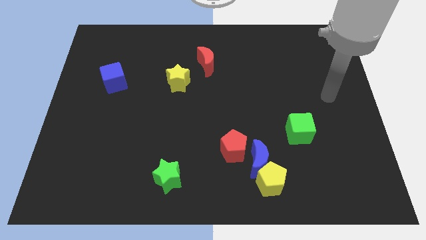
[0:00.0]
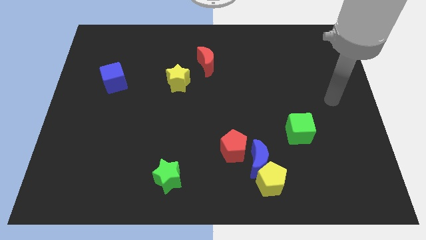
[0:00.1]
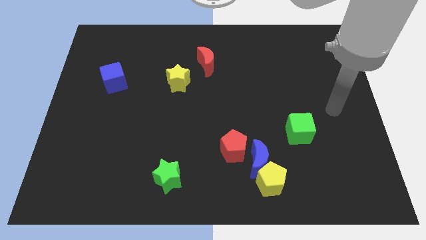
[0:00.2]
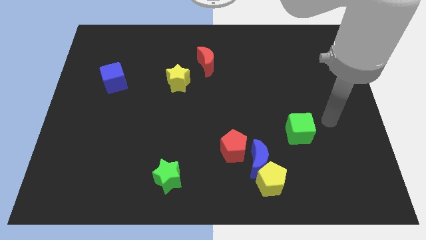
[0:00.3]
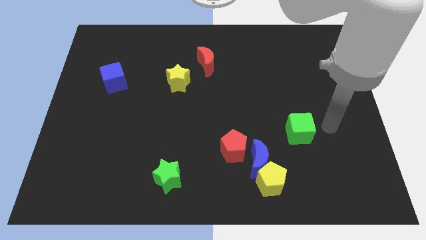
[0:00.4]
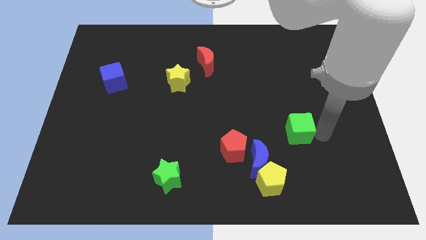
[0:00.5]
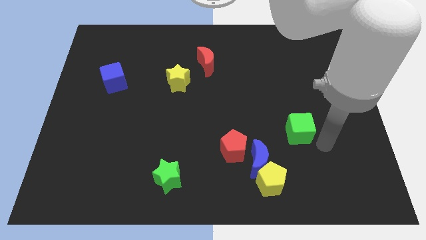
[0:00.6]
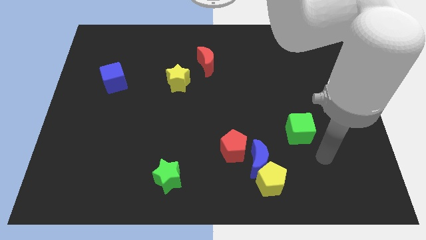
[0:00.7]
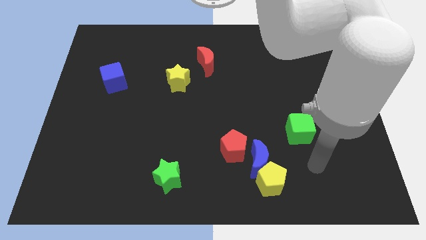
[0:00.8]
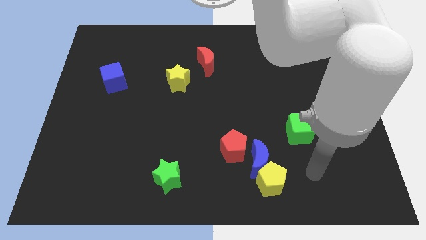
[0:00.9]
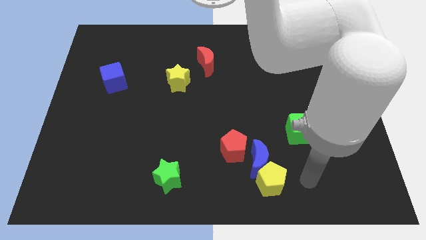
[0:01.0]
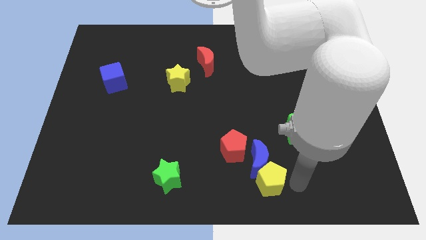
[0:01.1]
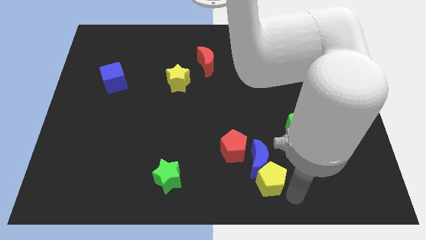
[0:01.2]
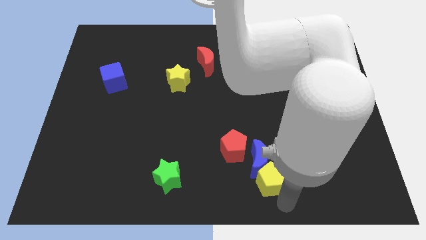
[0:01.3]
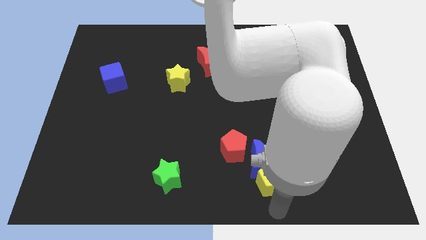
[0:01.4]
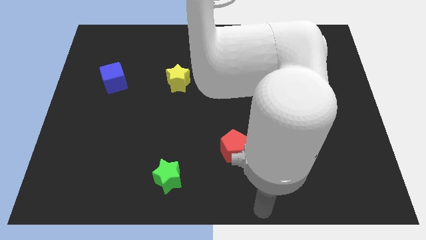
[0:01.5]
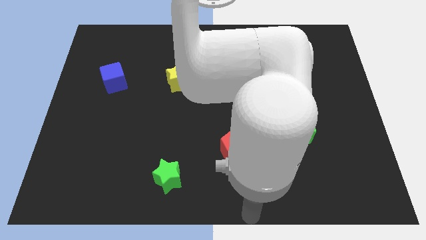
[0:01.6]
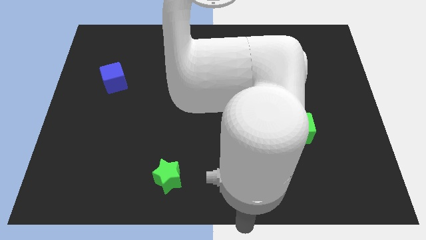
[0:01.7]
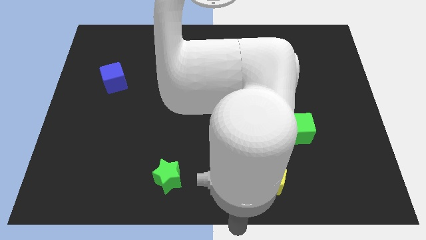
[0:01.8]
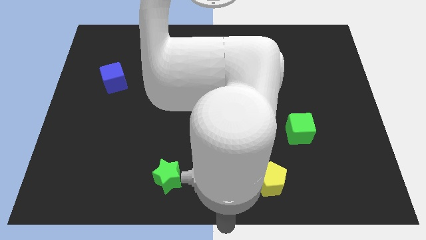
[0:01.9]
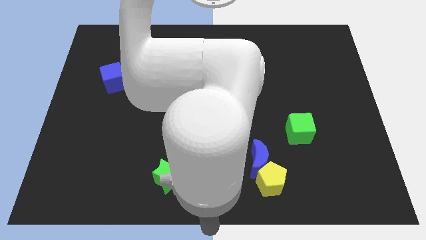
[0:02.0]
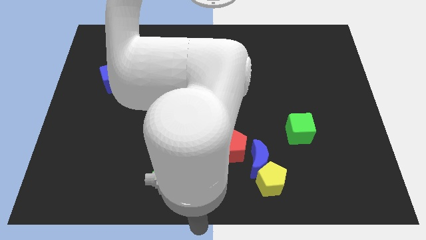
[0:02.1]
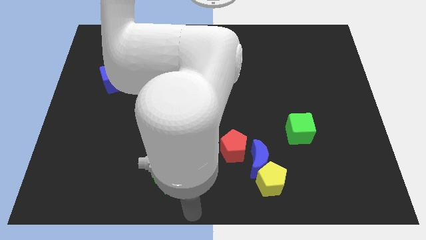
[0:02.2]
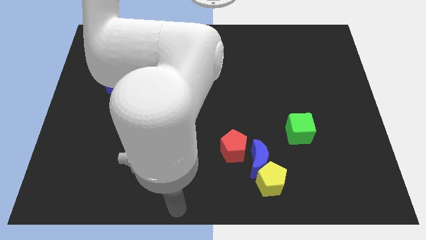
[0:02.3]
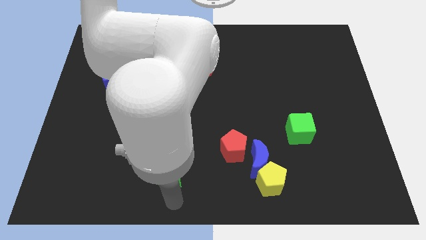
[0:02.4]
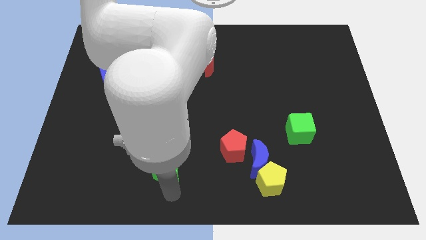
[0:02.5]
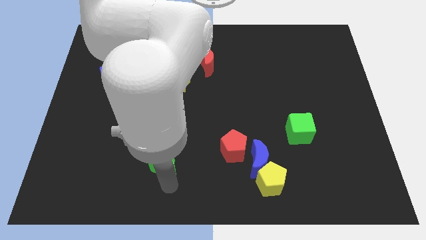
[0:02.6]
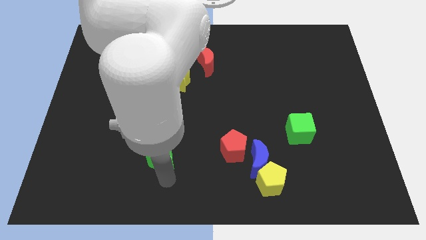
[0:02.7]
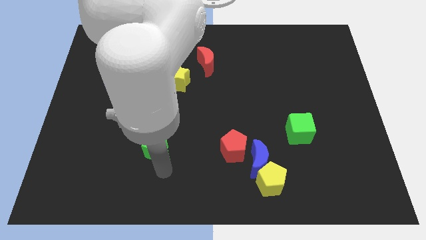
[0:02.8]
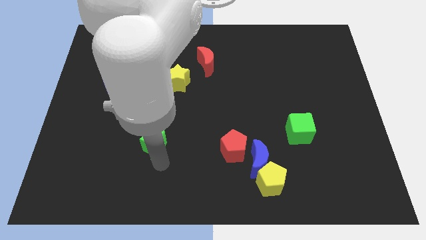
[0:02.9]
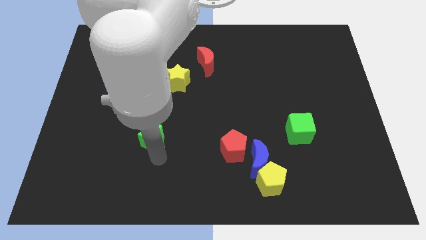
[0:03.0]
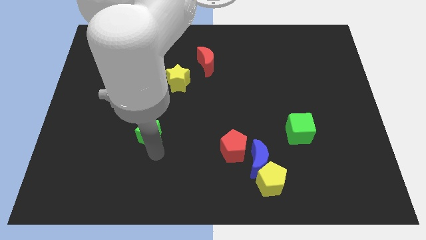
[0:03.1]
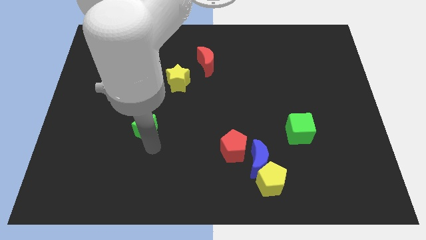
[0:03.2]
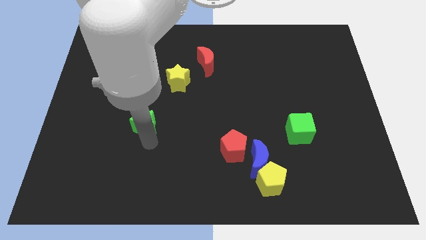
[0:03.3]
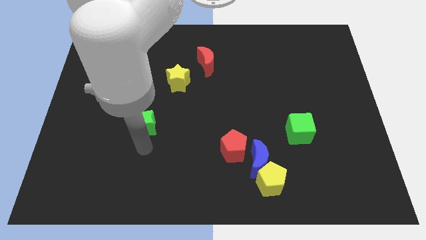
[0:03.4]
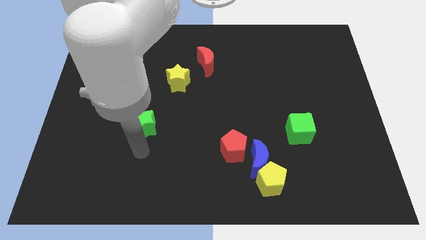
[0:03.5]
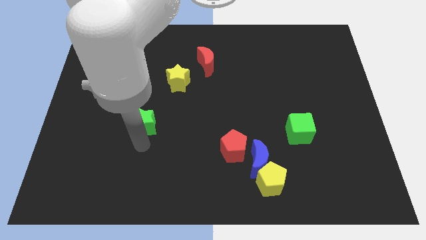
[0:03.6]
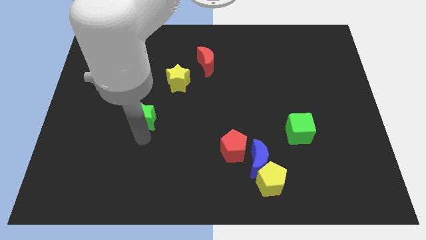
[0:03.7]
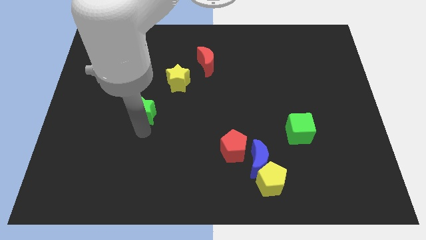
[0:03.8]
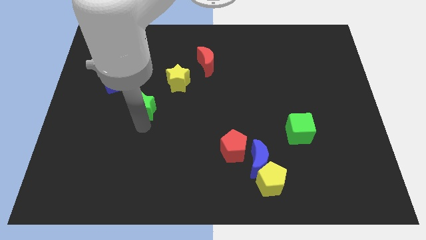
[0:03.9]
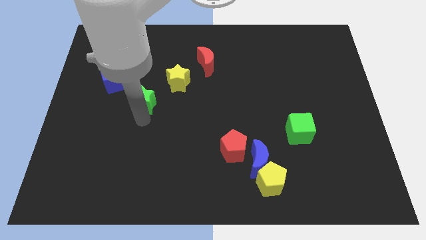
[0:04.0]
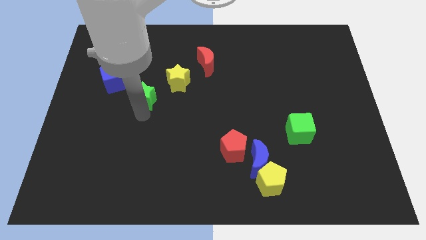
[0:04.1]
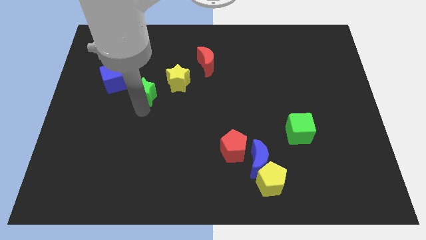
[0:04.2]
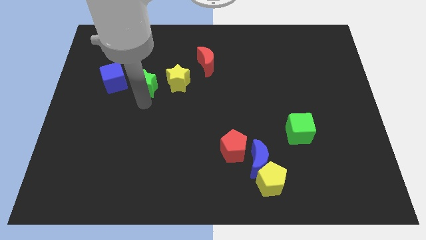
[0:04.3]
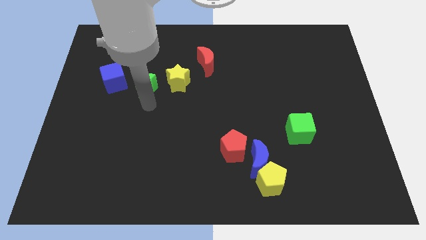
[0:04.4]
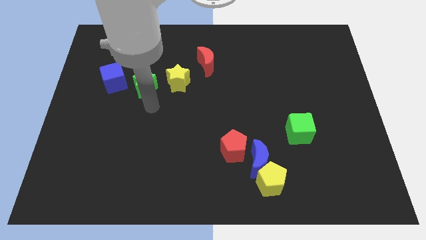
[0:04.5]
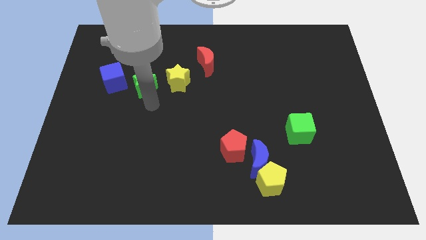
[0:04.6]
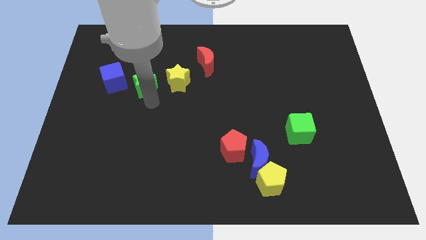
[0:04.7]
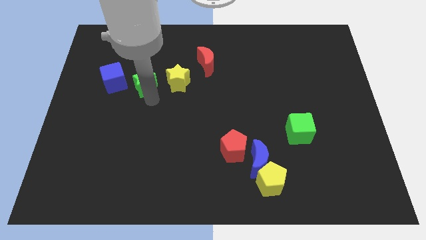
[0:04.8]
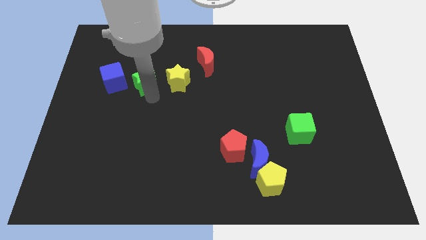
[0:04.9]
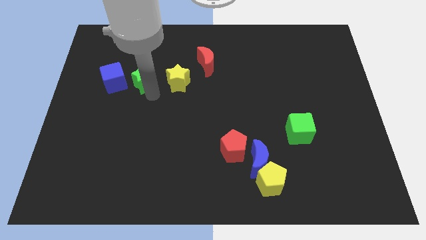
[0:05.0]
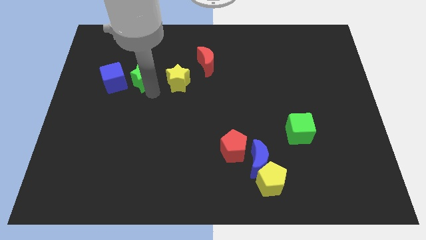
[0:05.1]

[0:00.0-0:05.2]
slide the green star diagonally up and to the right of the blue cube

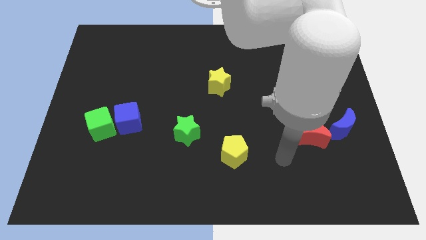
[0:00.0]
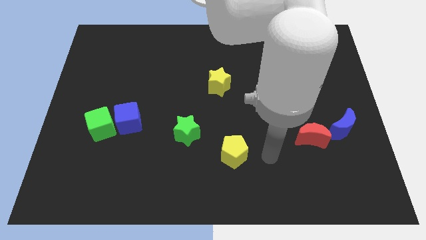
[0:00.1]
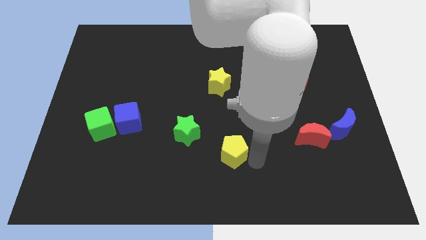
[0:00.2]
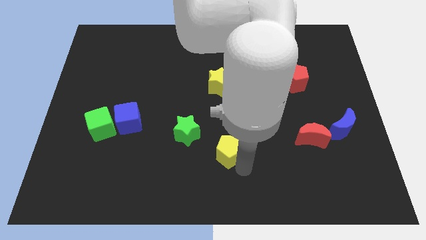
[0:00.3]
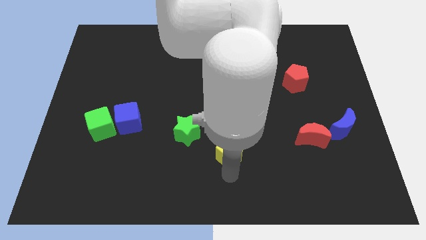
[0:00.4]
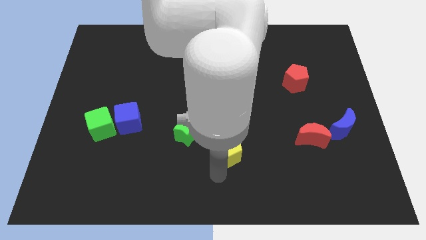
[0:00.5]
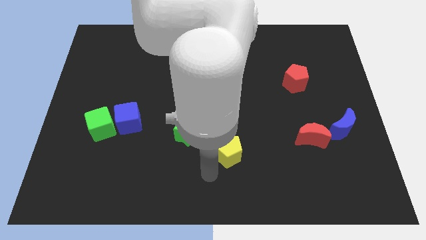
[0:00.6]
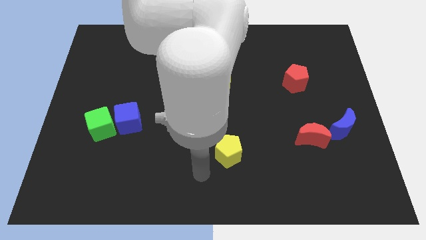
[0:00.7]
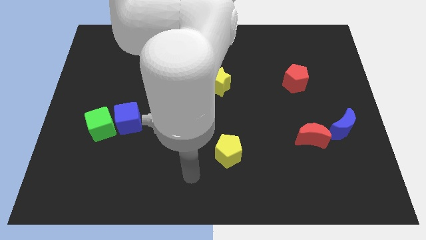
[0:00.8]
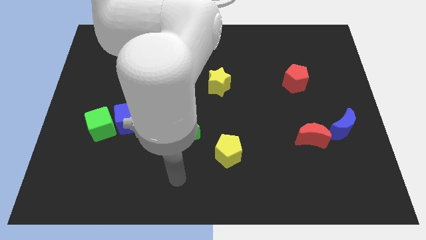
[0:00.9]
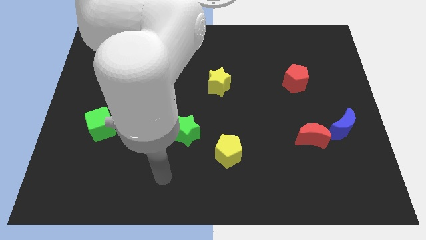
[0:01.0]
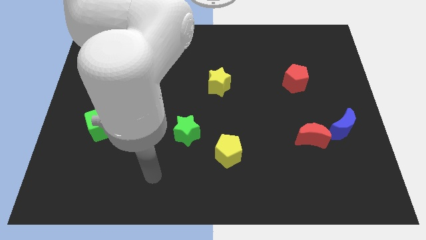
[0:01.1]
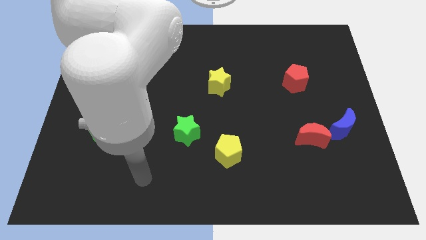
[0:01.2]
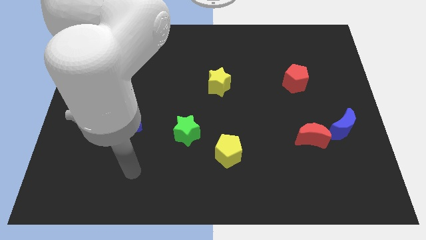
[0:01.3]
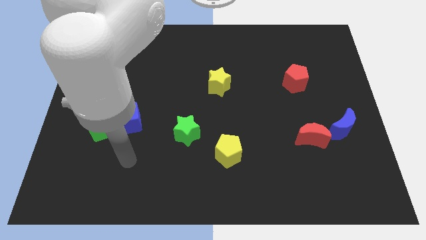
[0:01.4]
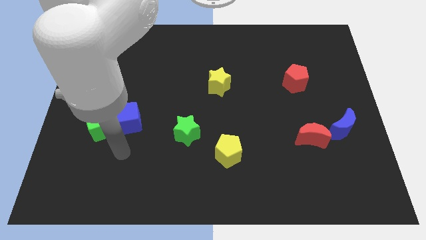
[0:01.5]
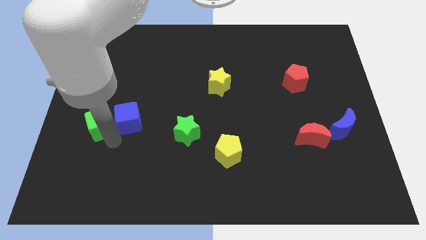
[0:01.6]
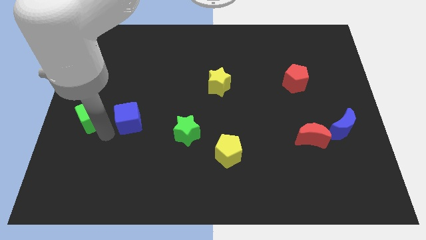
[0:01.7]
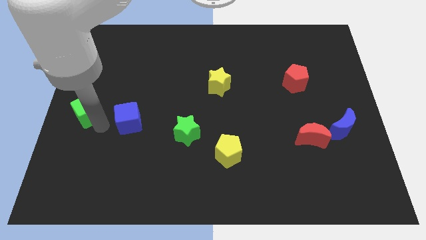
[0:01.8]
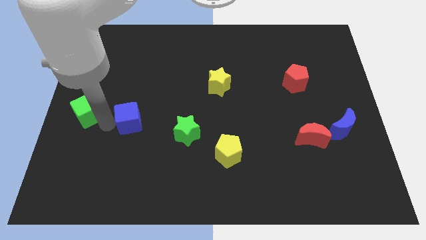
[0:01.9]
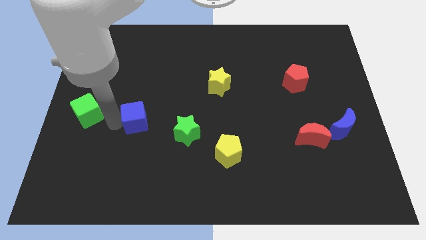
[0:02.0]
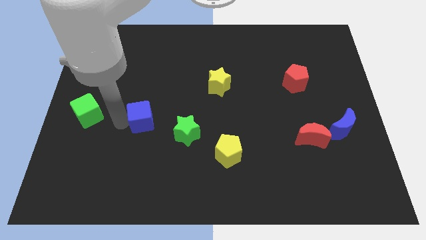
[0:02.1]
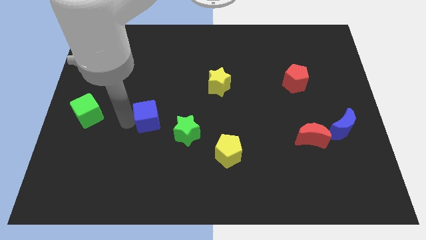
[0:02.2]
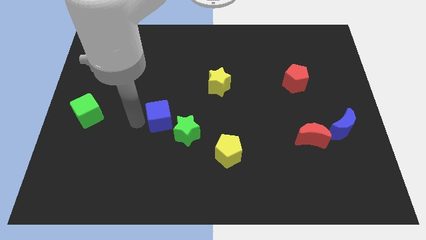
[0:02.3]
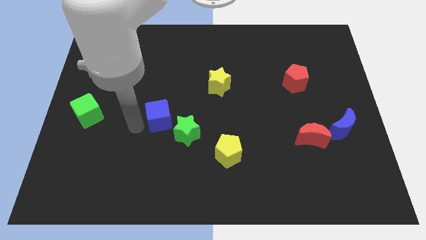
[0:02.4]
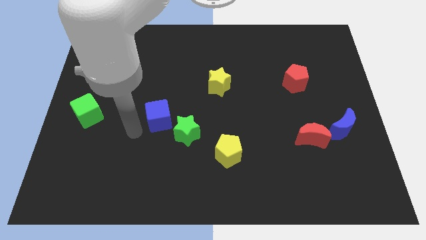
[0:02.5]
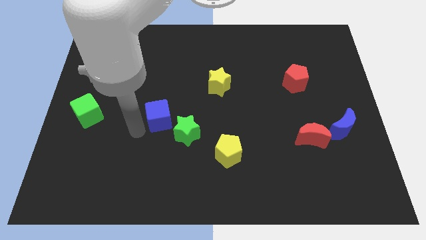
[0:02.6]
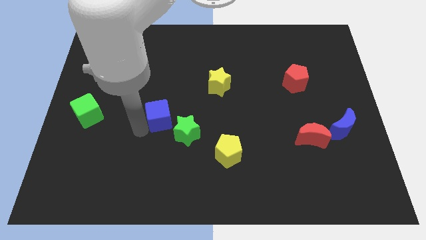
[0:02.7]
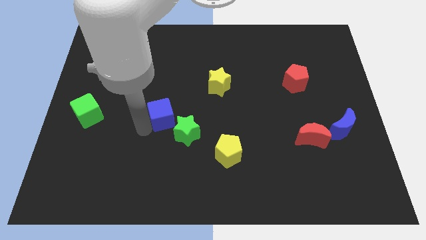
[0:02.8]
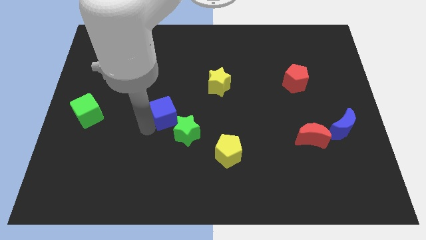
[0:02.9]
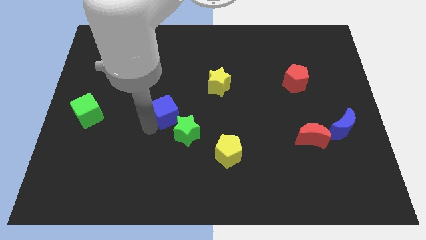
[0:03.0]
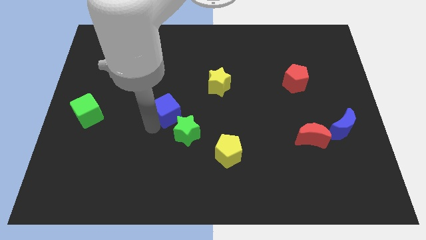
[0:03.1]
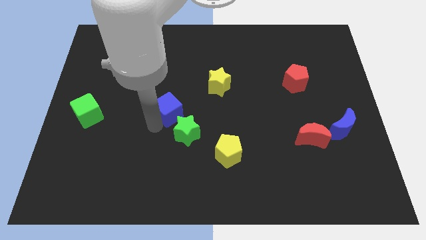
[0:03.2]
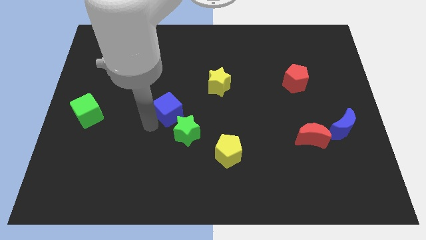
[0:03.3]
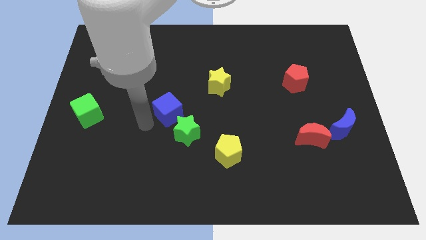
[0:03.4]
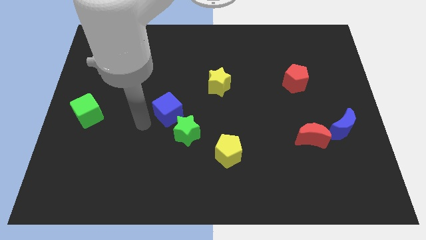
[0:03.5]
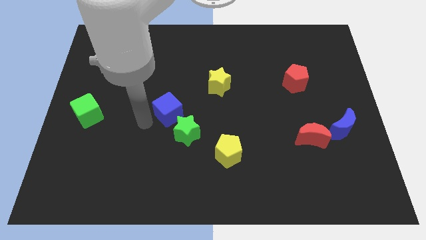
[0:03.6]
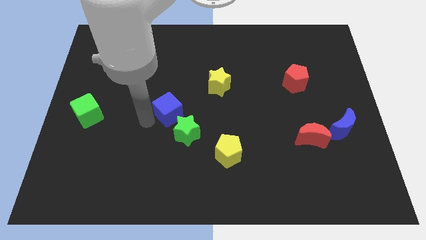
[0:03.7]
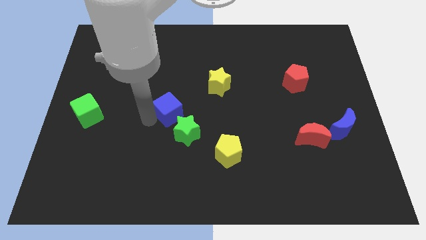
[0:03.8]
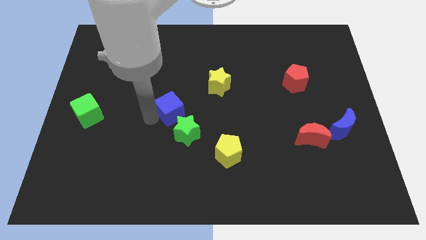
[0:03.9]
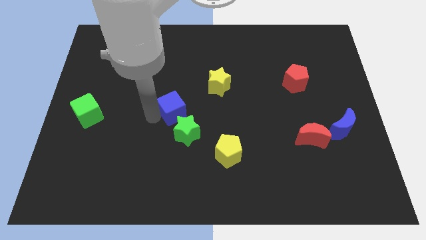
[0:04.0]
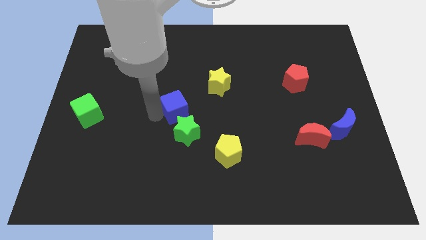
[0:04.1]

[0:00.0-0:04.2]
slide the blue cube to the bottom left side of the yellow star
